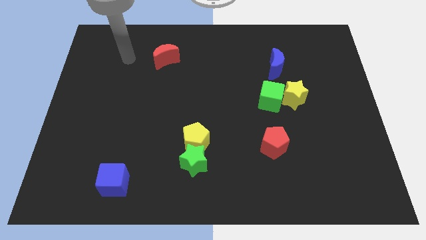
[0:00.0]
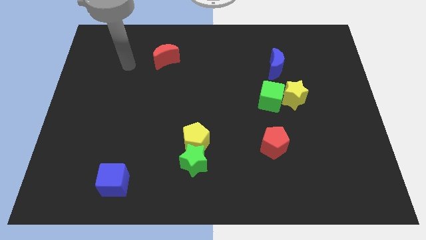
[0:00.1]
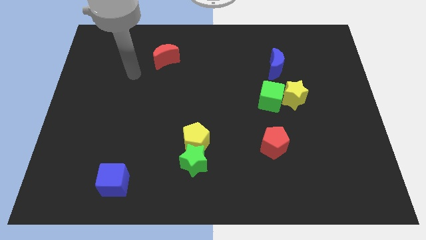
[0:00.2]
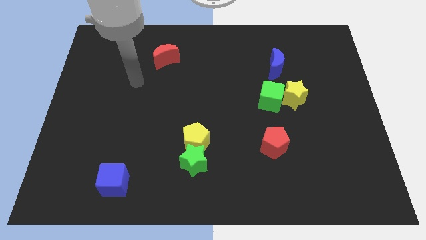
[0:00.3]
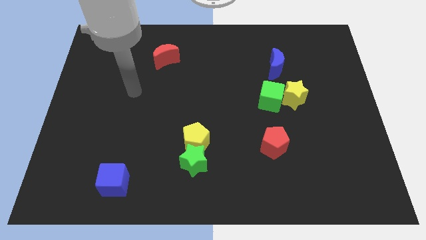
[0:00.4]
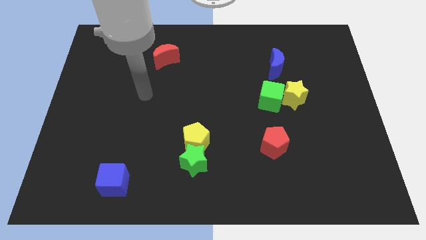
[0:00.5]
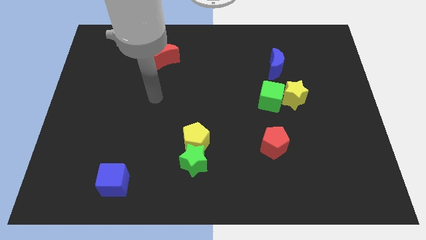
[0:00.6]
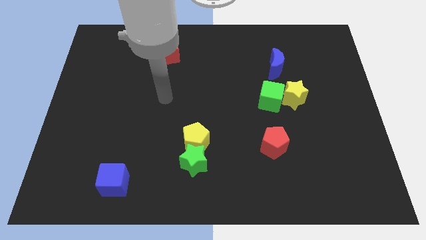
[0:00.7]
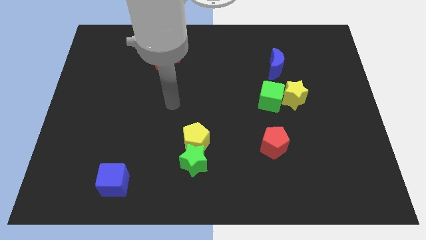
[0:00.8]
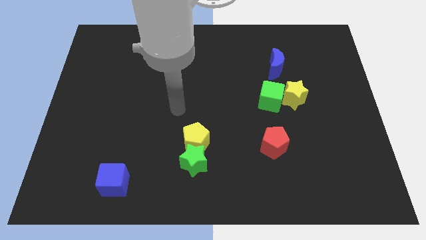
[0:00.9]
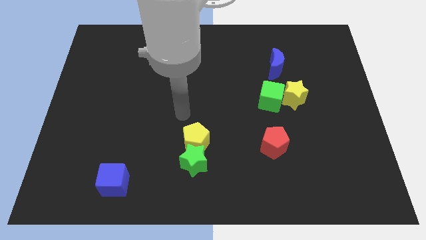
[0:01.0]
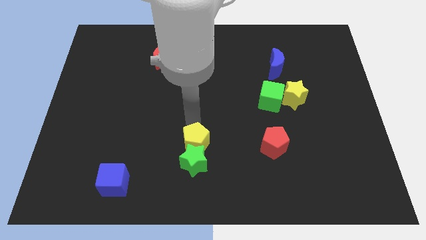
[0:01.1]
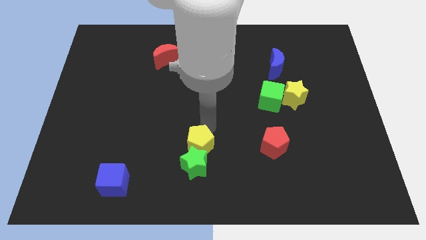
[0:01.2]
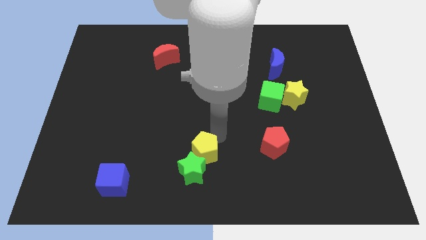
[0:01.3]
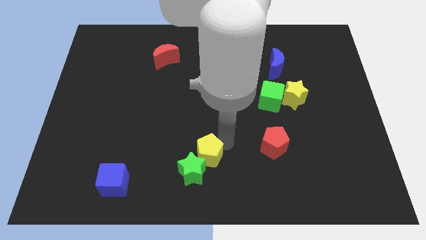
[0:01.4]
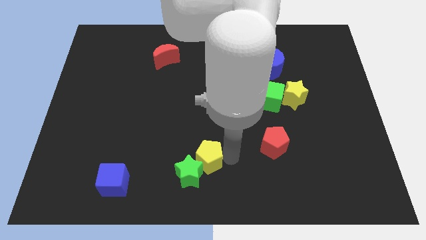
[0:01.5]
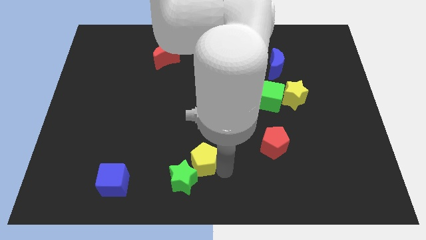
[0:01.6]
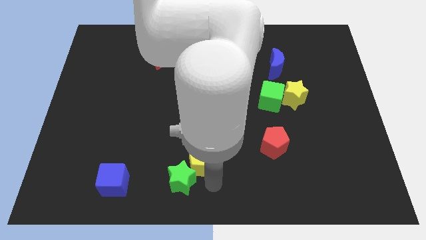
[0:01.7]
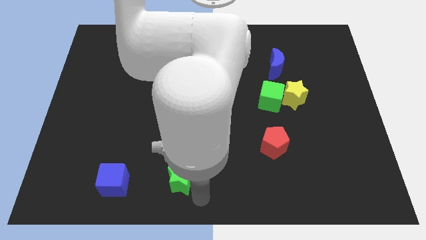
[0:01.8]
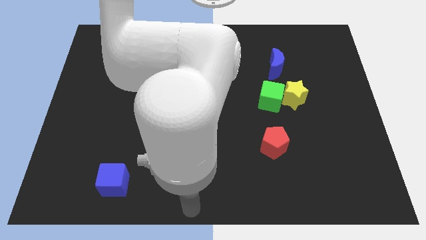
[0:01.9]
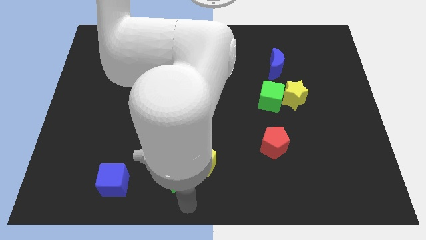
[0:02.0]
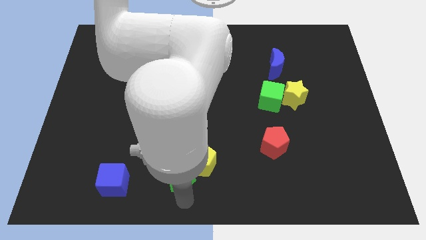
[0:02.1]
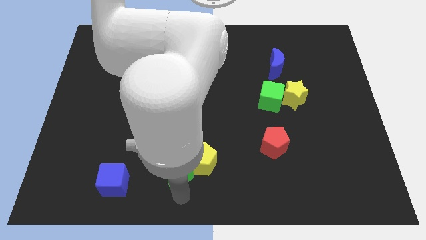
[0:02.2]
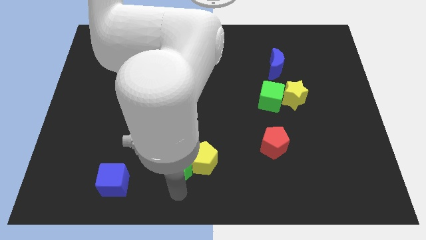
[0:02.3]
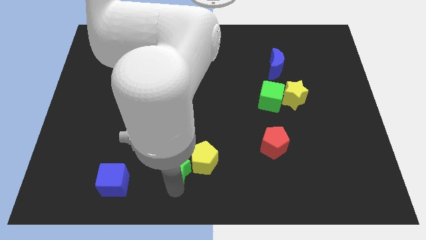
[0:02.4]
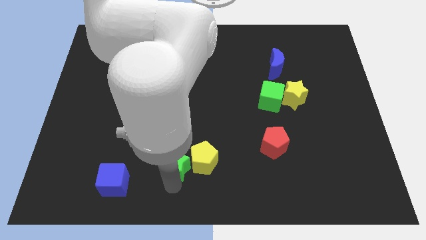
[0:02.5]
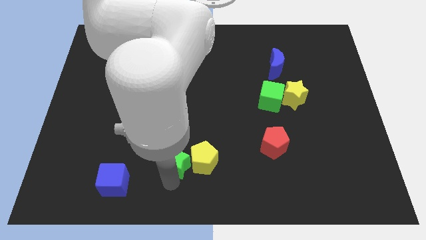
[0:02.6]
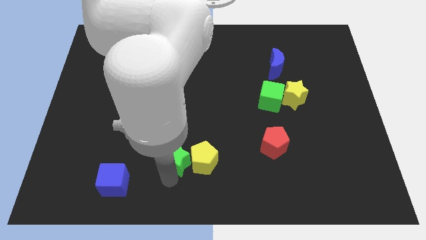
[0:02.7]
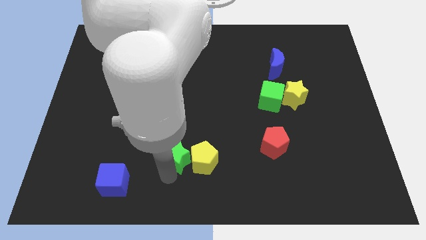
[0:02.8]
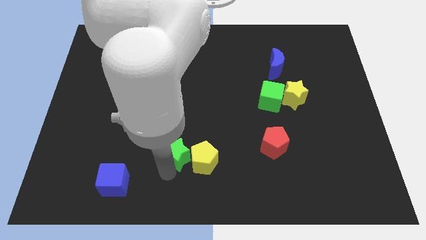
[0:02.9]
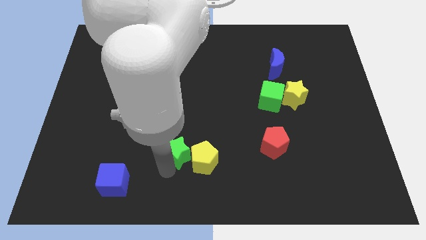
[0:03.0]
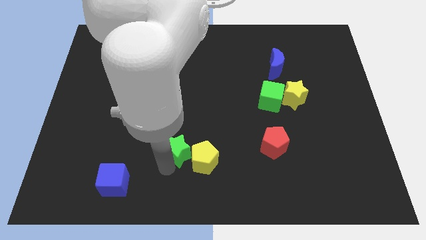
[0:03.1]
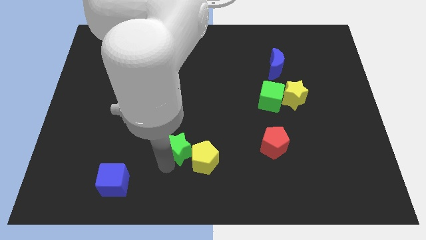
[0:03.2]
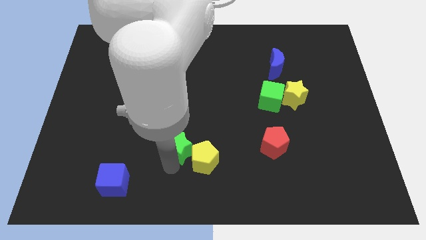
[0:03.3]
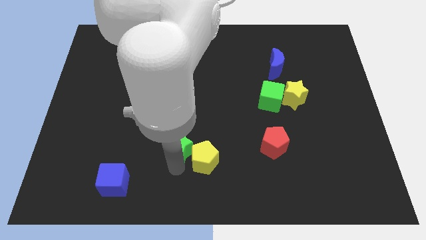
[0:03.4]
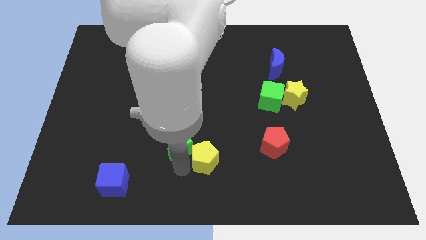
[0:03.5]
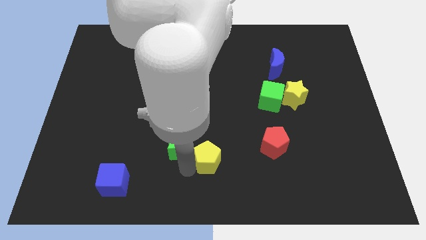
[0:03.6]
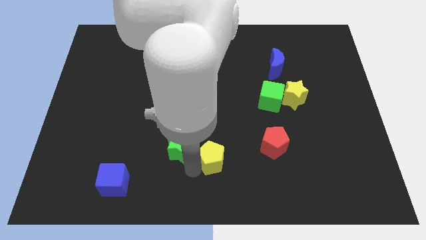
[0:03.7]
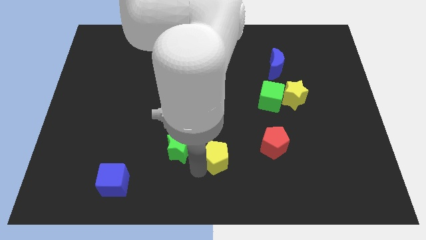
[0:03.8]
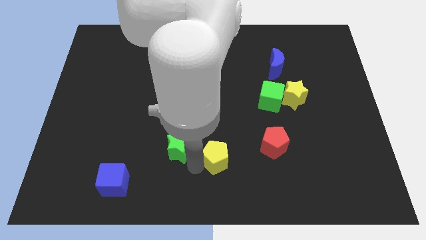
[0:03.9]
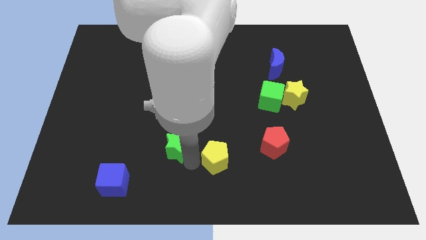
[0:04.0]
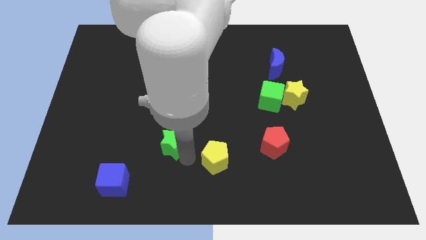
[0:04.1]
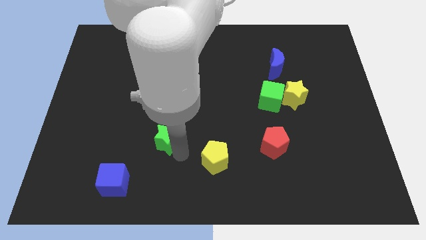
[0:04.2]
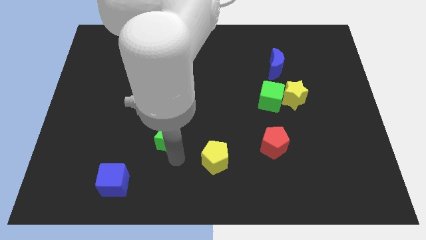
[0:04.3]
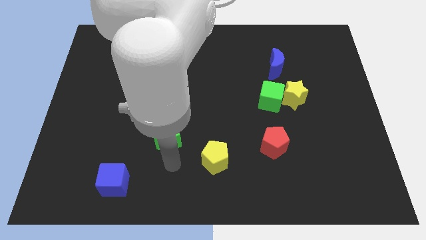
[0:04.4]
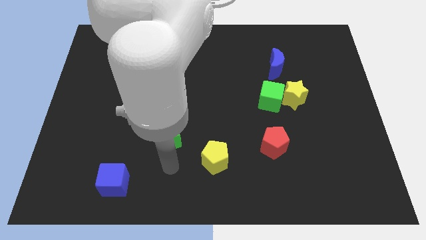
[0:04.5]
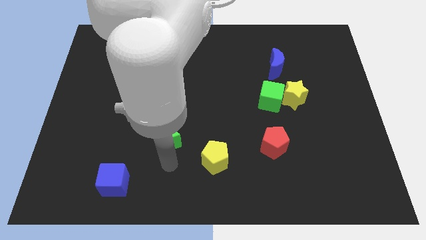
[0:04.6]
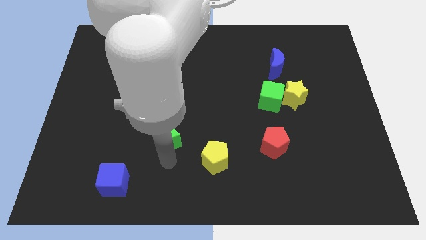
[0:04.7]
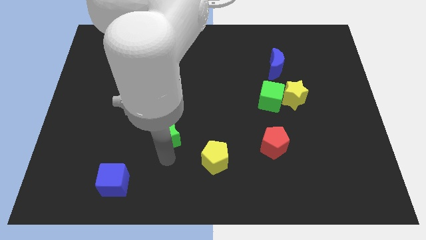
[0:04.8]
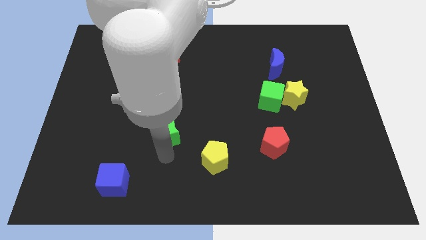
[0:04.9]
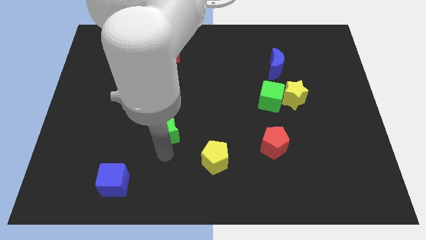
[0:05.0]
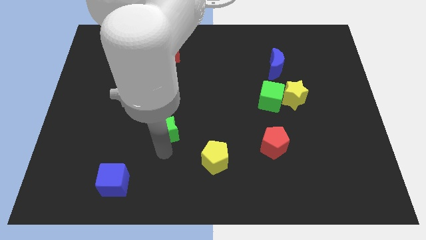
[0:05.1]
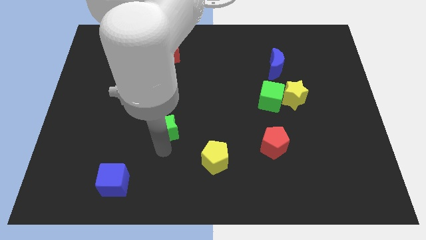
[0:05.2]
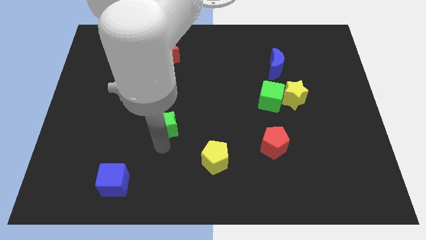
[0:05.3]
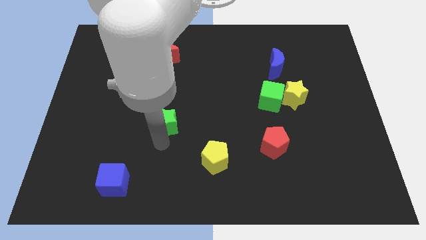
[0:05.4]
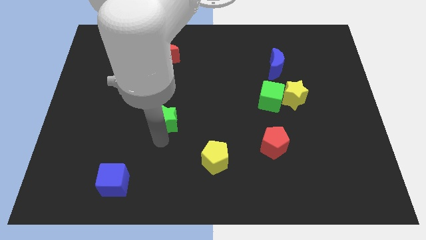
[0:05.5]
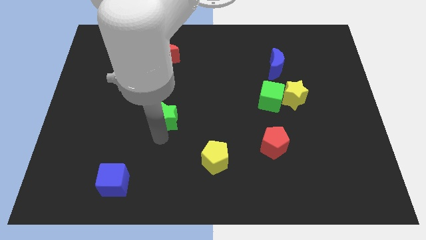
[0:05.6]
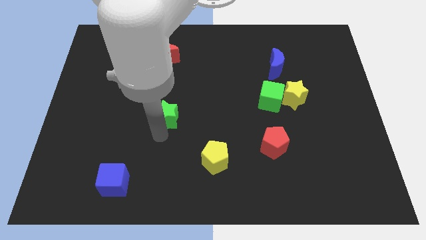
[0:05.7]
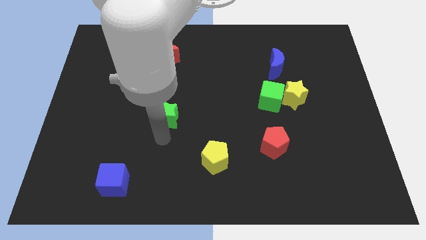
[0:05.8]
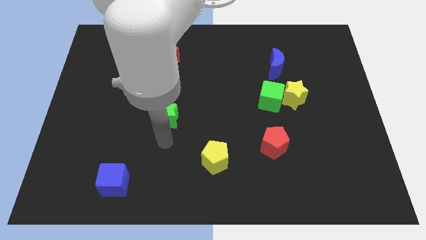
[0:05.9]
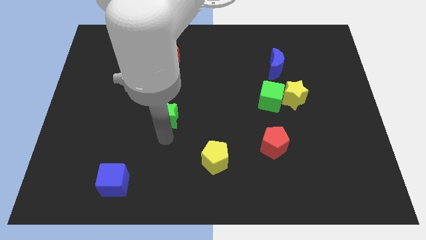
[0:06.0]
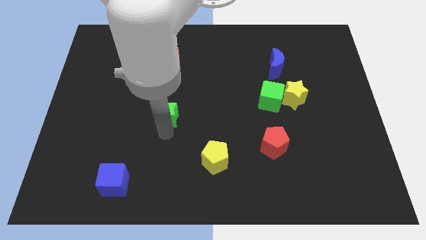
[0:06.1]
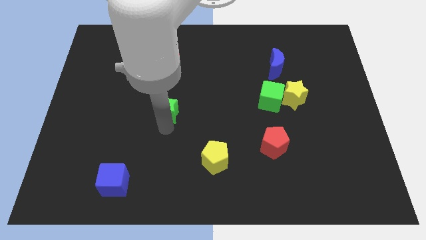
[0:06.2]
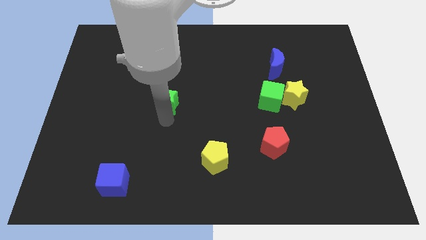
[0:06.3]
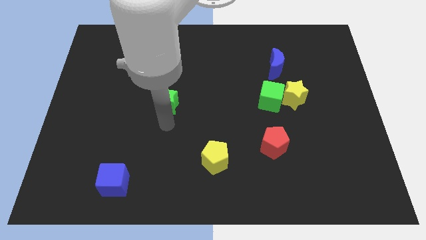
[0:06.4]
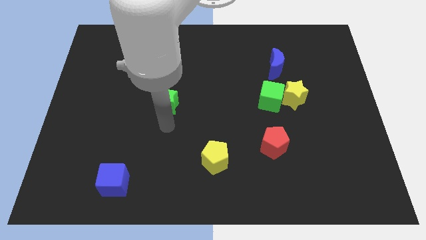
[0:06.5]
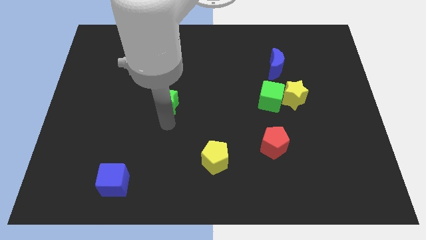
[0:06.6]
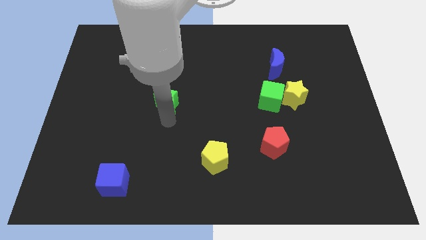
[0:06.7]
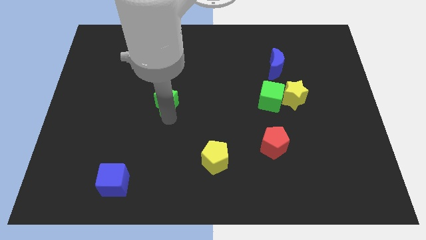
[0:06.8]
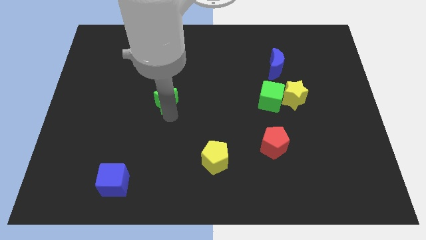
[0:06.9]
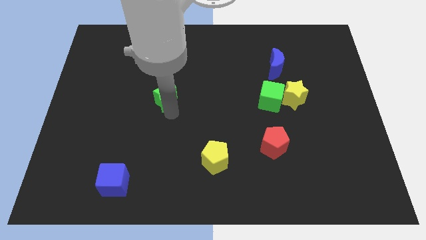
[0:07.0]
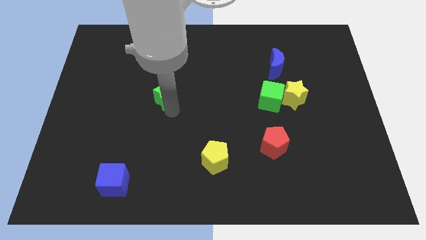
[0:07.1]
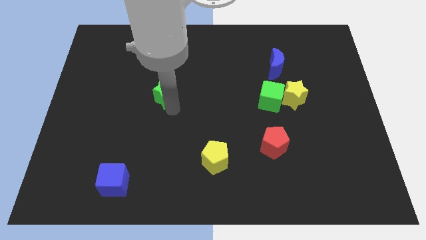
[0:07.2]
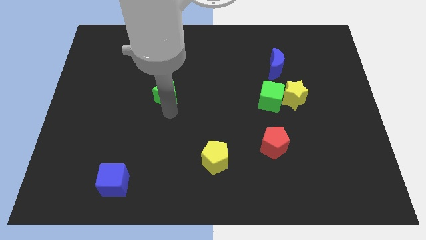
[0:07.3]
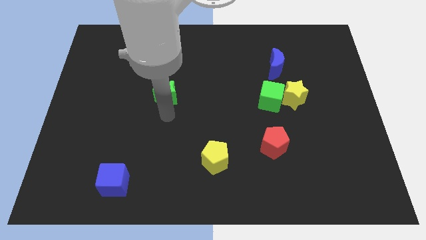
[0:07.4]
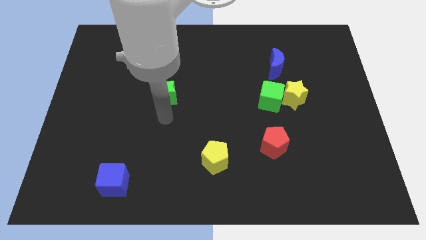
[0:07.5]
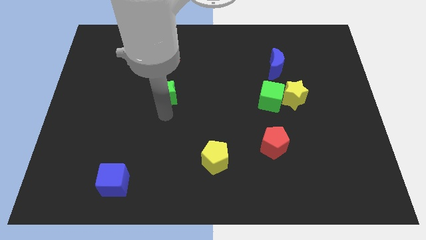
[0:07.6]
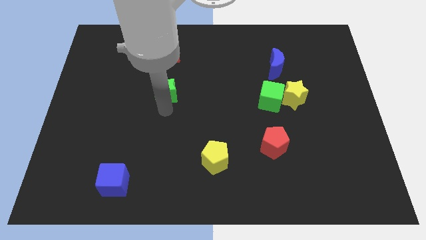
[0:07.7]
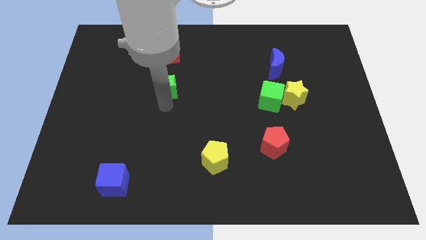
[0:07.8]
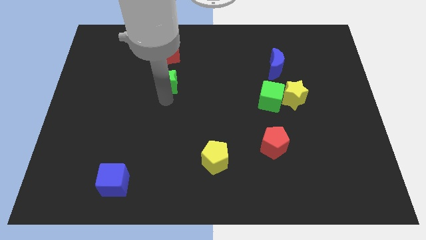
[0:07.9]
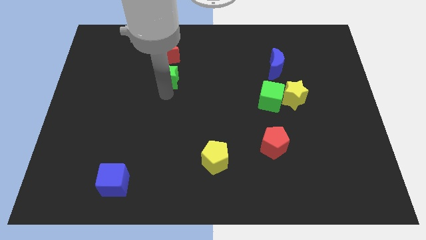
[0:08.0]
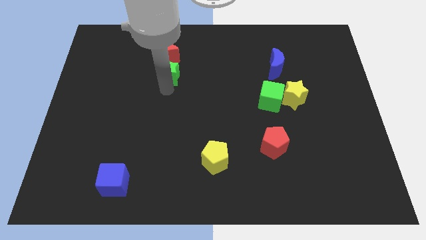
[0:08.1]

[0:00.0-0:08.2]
slide the green star towards the red moon
